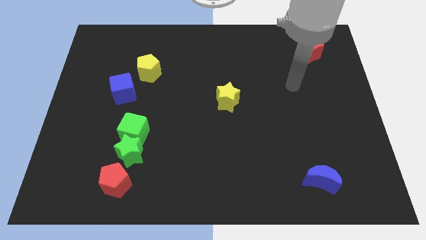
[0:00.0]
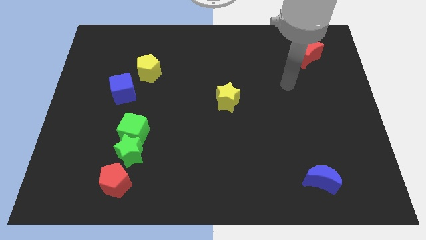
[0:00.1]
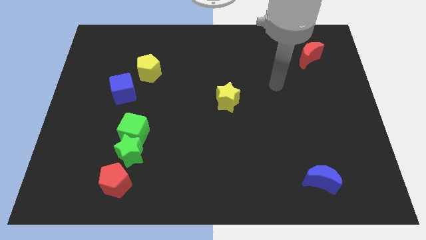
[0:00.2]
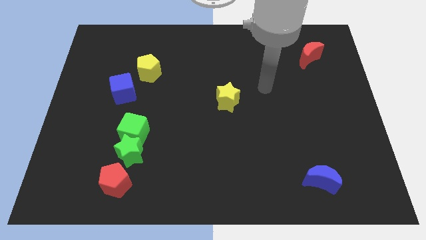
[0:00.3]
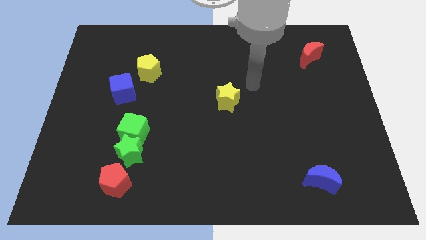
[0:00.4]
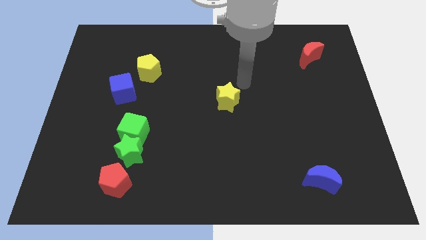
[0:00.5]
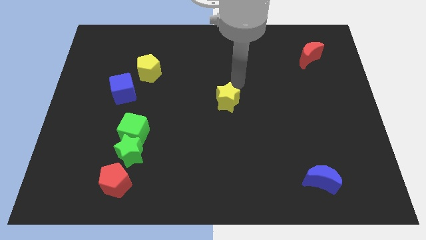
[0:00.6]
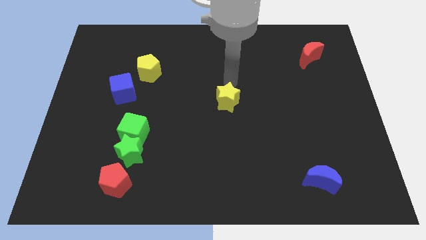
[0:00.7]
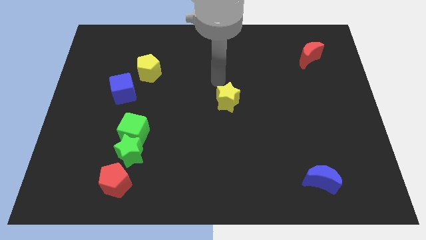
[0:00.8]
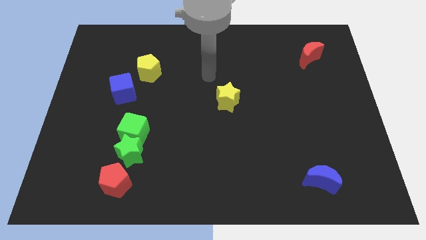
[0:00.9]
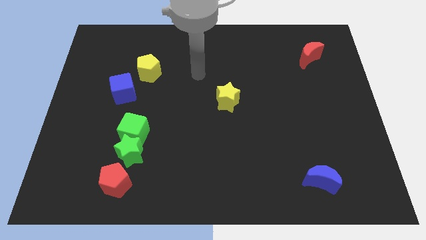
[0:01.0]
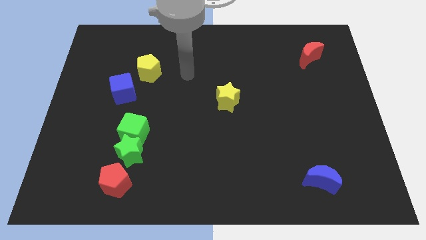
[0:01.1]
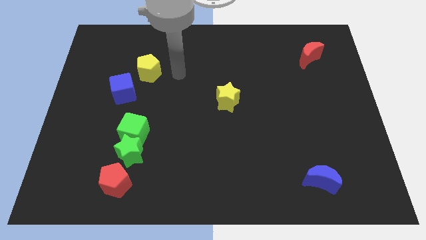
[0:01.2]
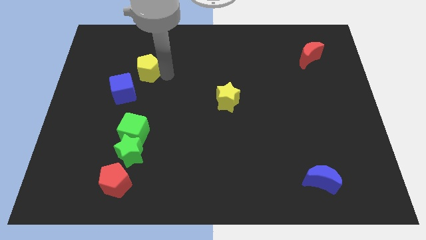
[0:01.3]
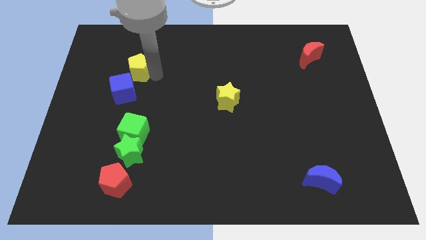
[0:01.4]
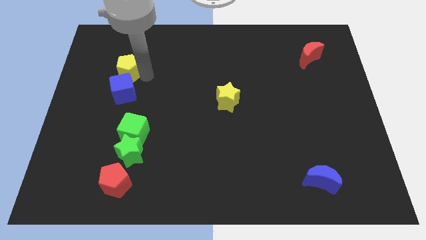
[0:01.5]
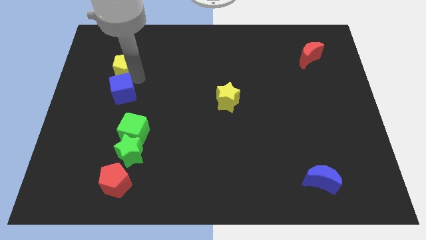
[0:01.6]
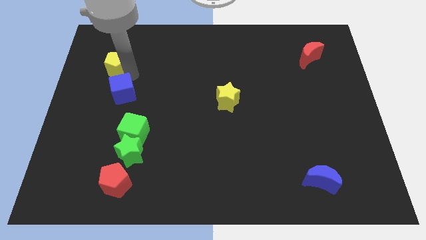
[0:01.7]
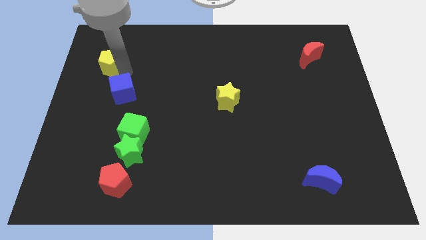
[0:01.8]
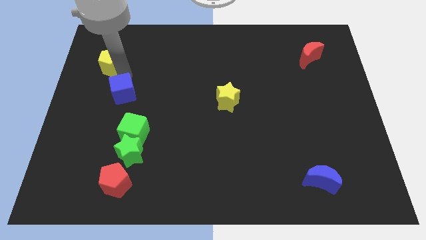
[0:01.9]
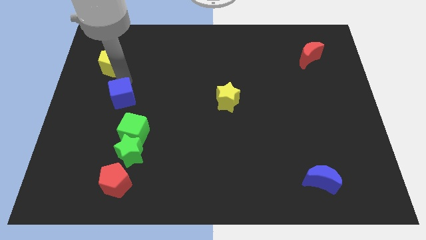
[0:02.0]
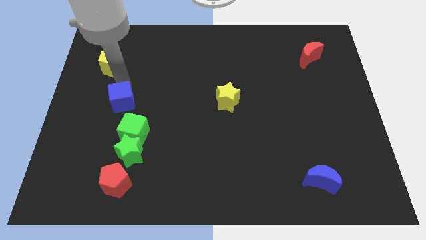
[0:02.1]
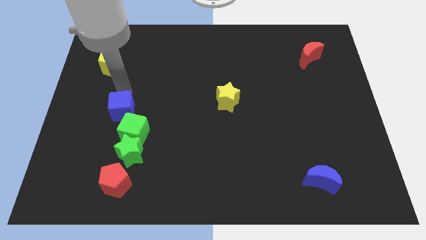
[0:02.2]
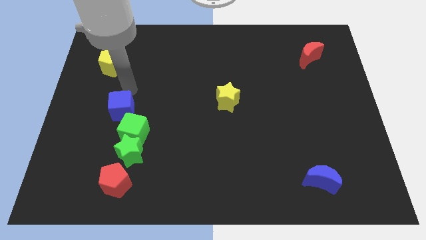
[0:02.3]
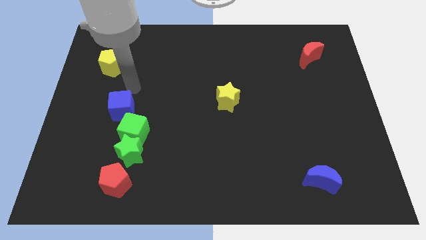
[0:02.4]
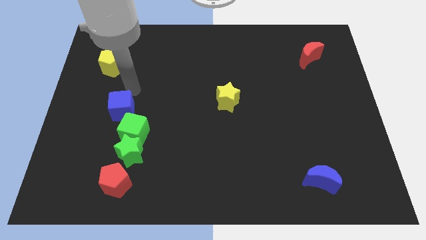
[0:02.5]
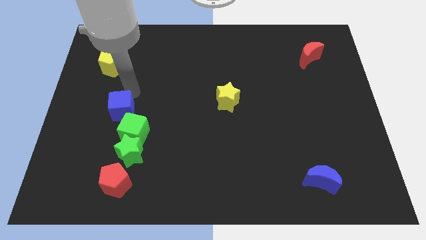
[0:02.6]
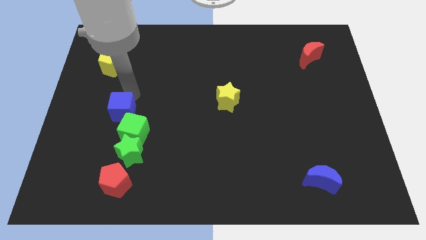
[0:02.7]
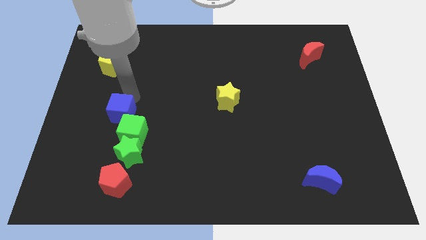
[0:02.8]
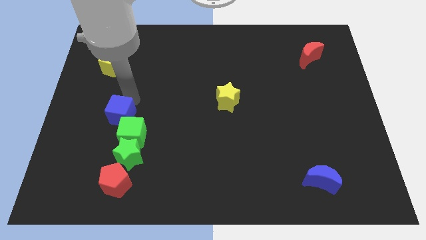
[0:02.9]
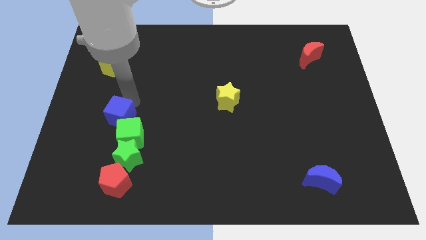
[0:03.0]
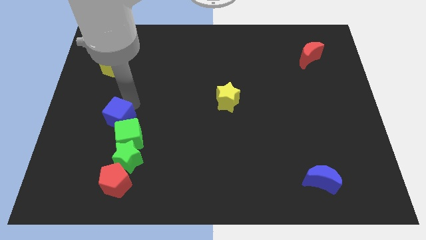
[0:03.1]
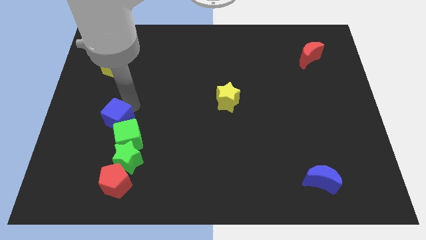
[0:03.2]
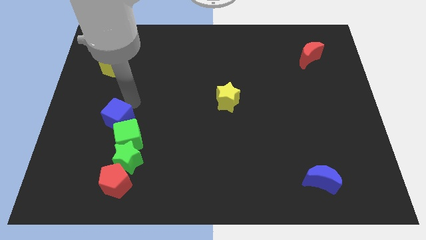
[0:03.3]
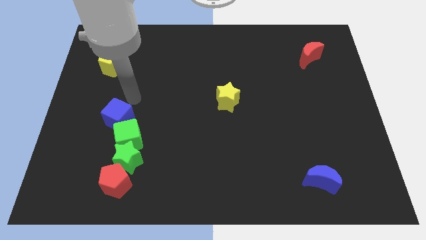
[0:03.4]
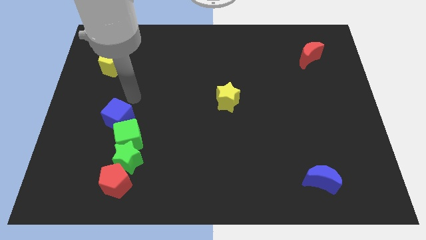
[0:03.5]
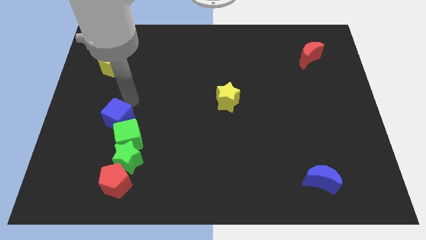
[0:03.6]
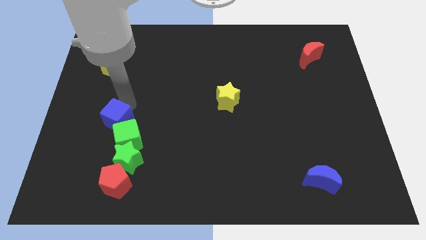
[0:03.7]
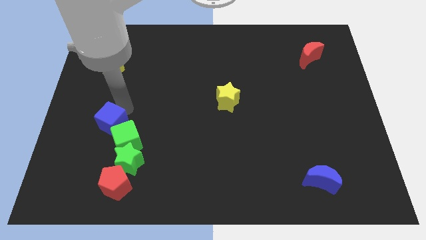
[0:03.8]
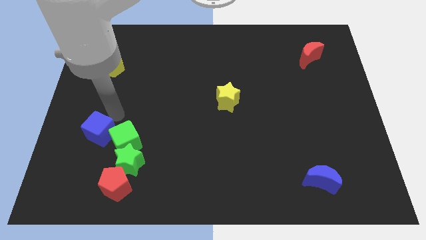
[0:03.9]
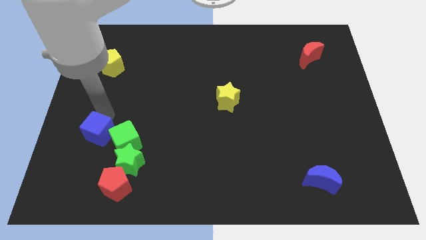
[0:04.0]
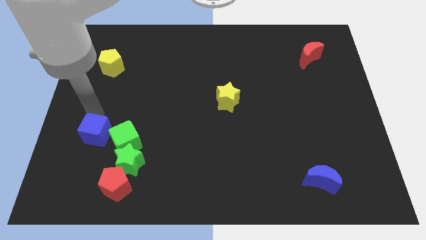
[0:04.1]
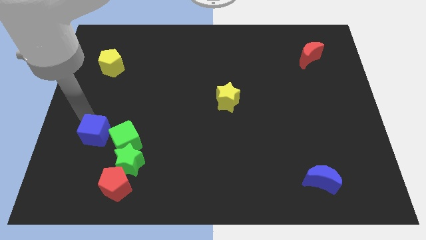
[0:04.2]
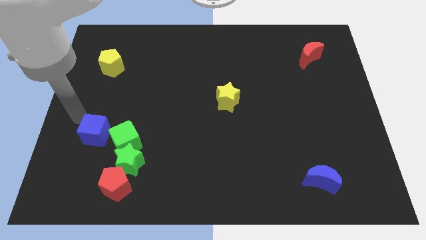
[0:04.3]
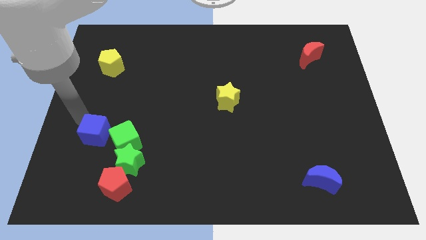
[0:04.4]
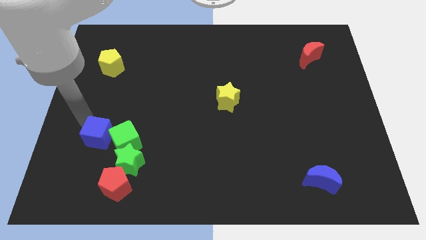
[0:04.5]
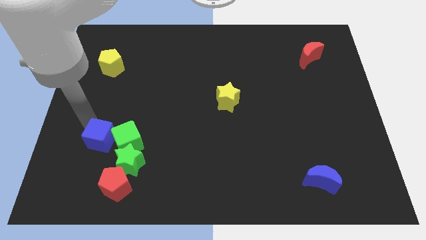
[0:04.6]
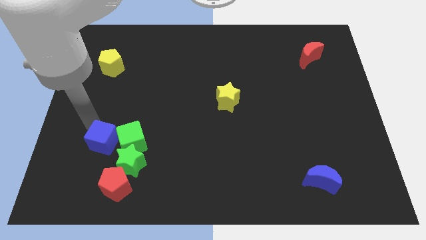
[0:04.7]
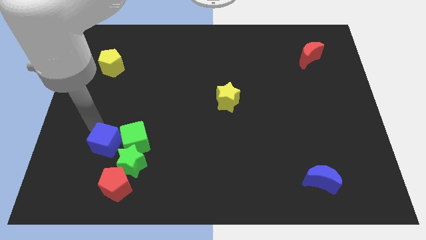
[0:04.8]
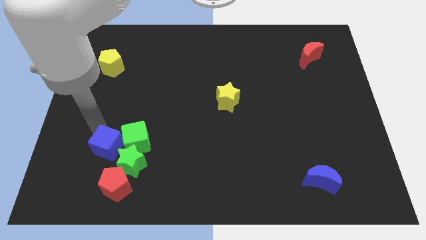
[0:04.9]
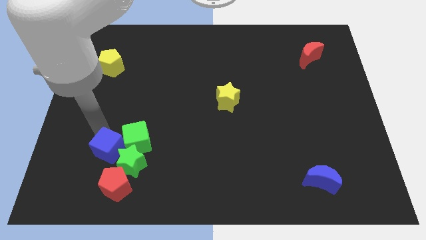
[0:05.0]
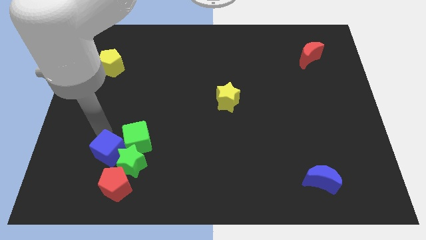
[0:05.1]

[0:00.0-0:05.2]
move the blue cube to the green star

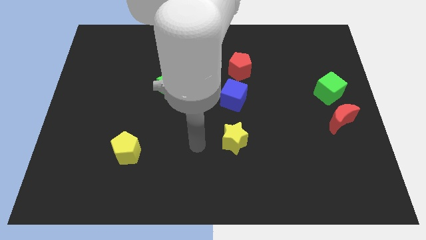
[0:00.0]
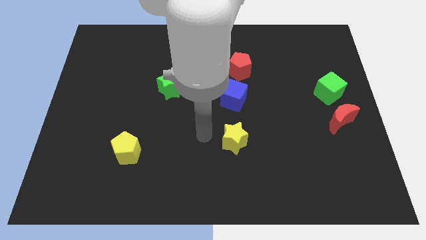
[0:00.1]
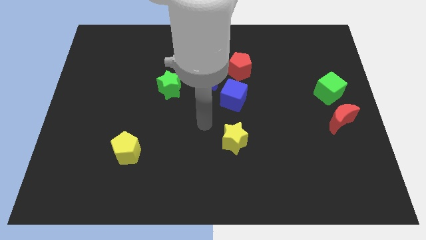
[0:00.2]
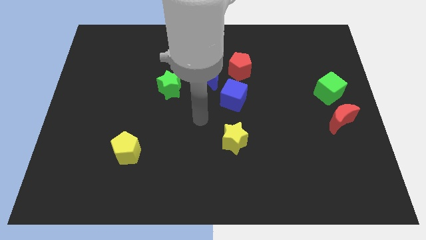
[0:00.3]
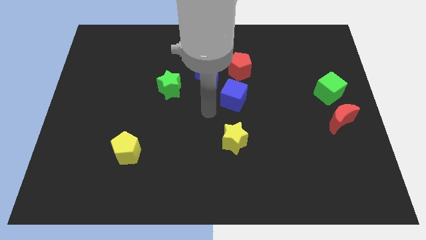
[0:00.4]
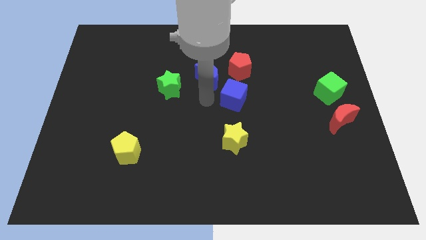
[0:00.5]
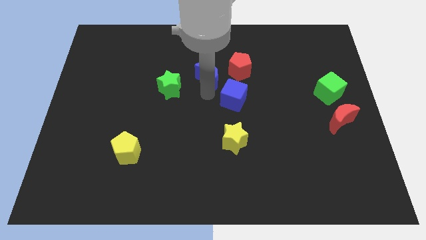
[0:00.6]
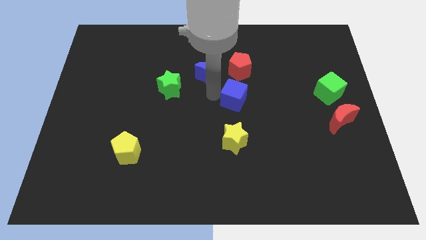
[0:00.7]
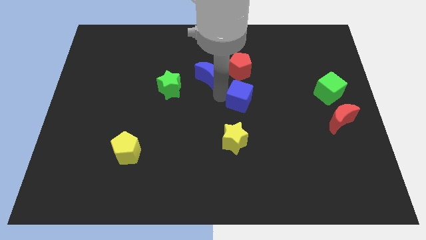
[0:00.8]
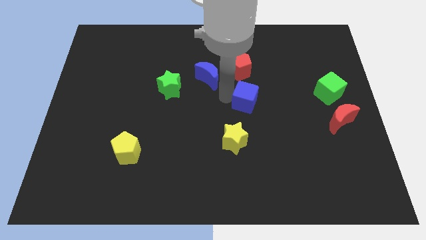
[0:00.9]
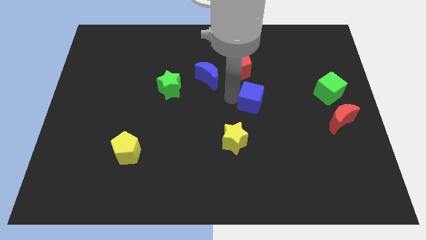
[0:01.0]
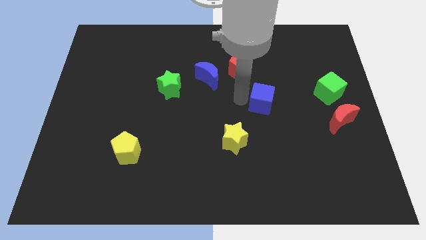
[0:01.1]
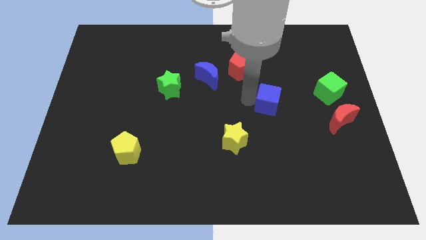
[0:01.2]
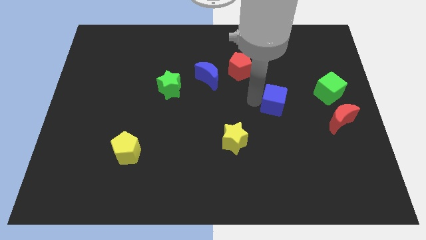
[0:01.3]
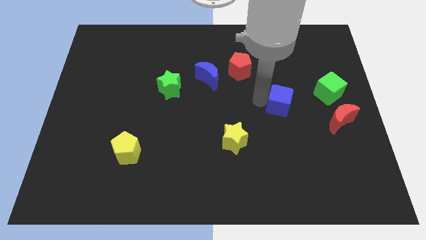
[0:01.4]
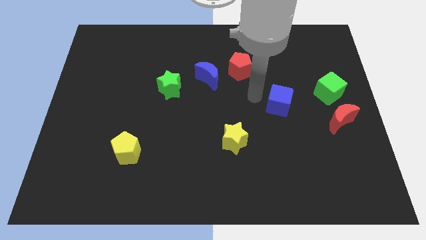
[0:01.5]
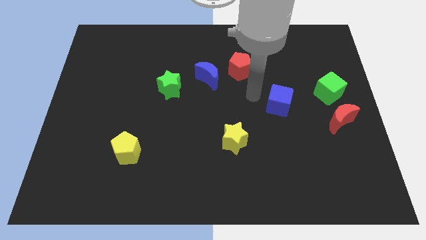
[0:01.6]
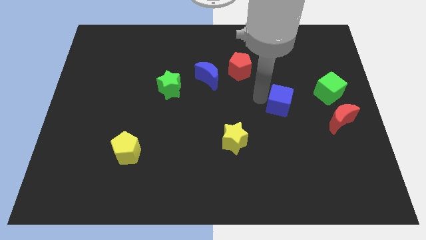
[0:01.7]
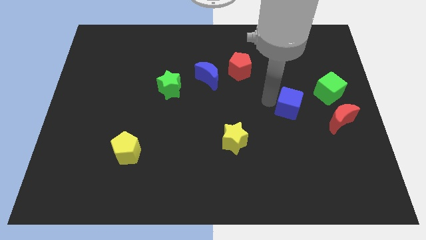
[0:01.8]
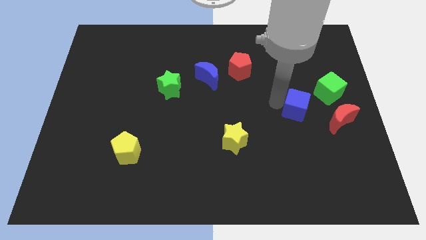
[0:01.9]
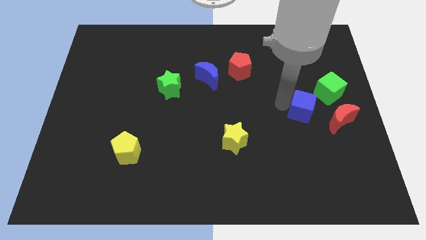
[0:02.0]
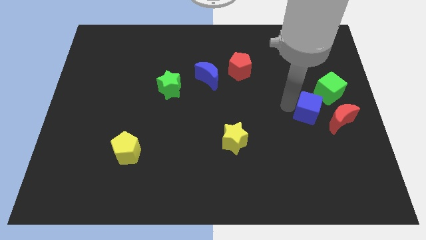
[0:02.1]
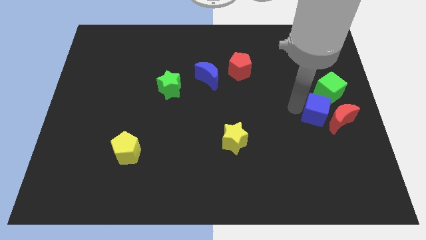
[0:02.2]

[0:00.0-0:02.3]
move the blue cube close to the red moon
